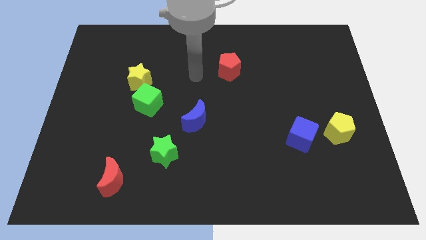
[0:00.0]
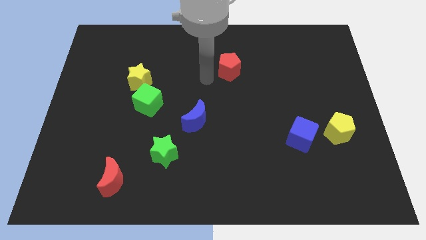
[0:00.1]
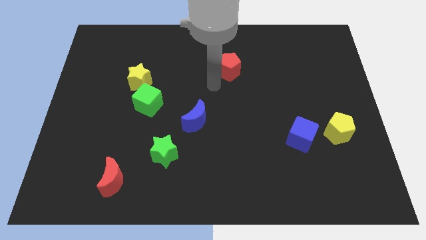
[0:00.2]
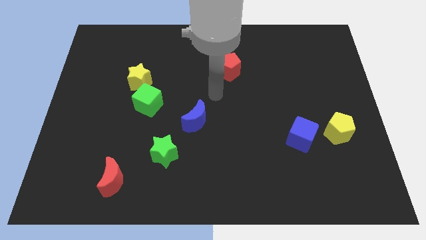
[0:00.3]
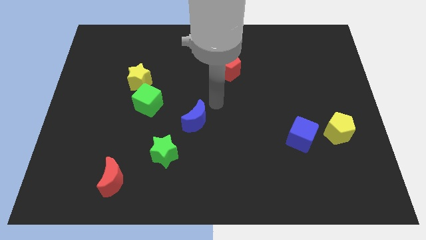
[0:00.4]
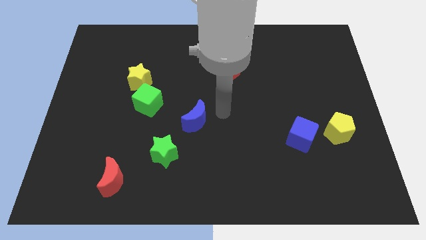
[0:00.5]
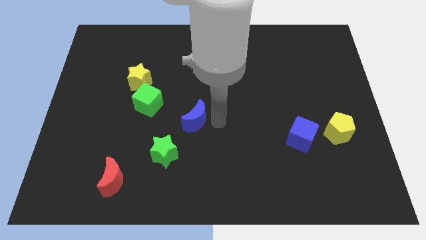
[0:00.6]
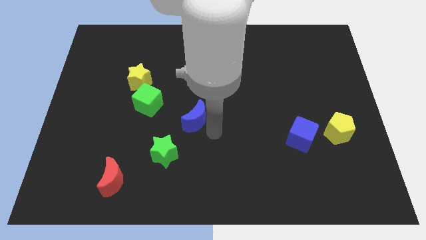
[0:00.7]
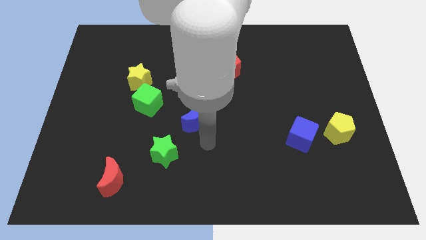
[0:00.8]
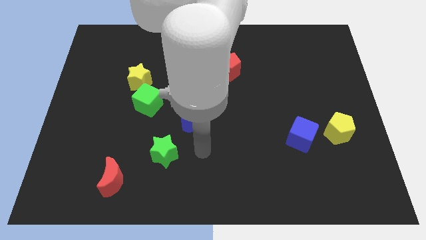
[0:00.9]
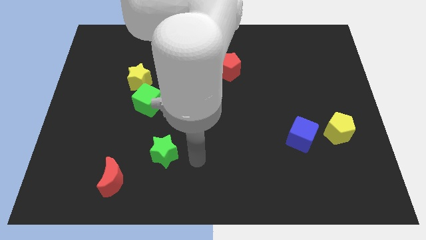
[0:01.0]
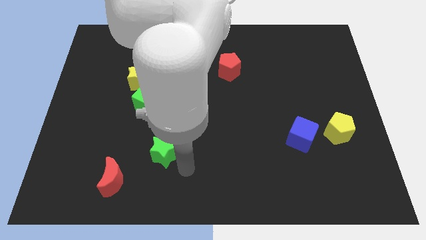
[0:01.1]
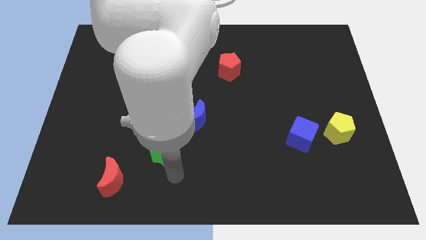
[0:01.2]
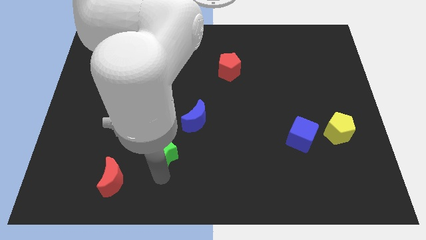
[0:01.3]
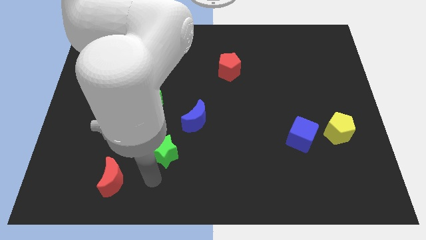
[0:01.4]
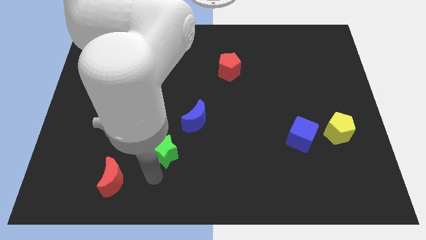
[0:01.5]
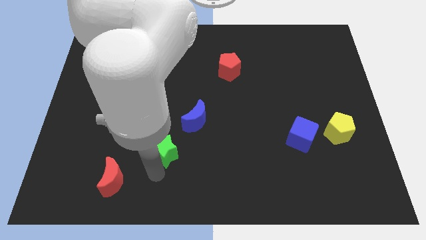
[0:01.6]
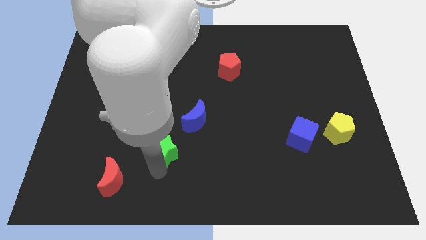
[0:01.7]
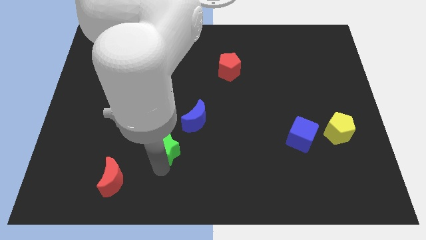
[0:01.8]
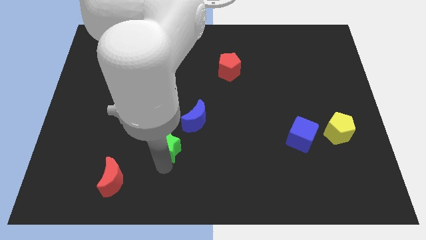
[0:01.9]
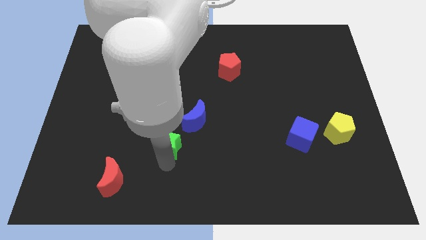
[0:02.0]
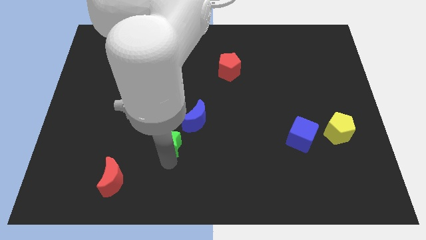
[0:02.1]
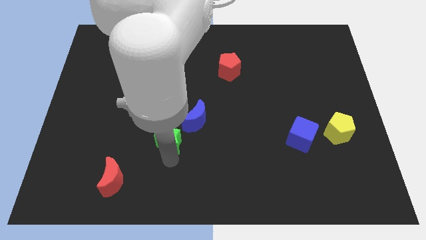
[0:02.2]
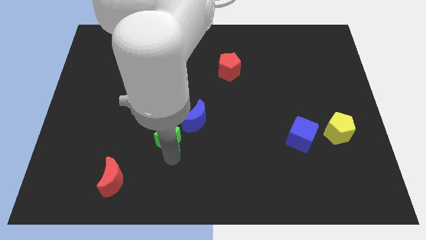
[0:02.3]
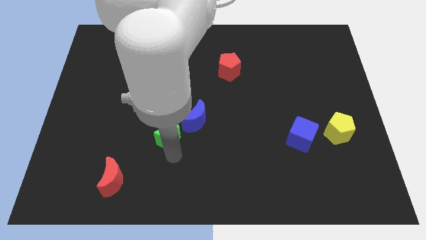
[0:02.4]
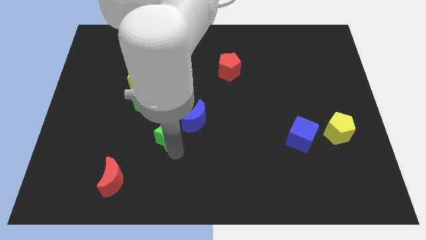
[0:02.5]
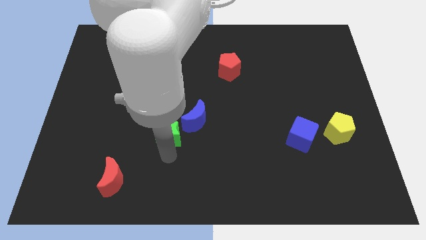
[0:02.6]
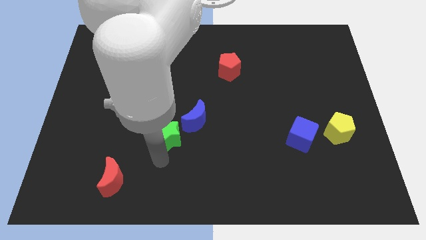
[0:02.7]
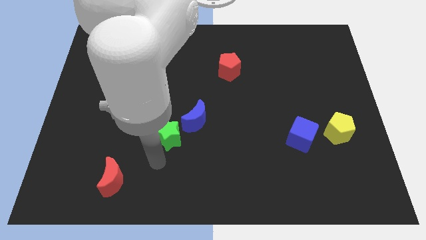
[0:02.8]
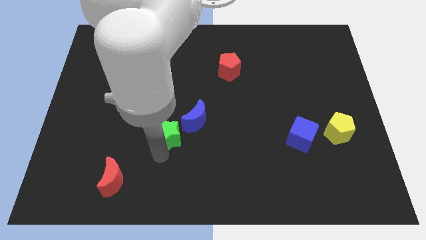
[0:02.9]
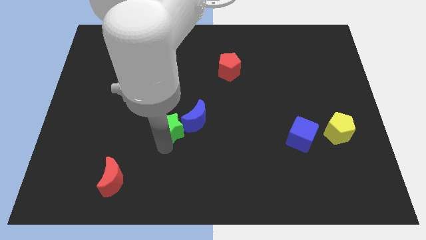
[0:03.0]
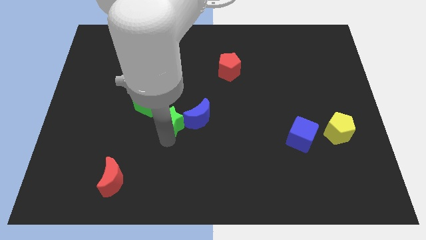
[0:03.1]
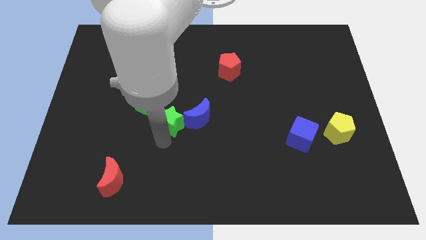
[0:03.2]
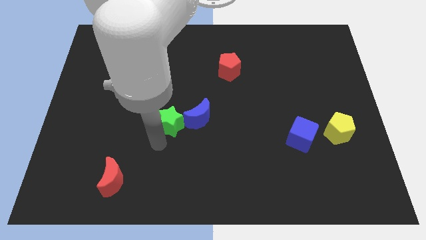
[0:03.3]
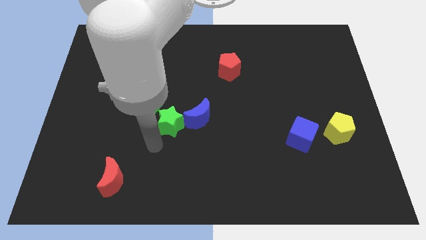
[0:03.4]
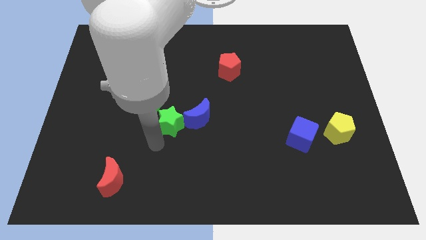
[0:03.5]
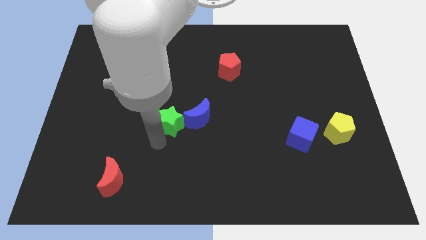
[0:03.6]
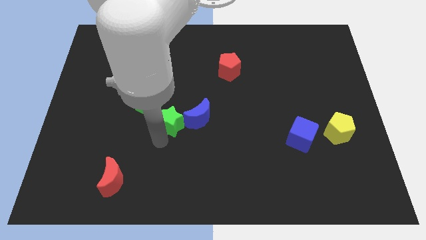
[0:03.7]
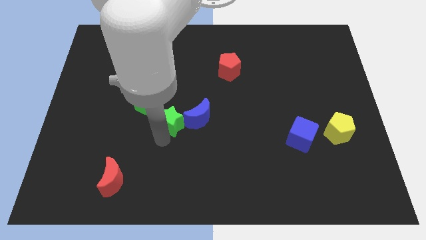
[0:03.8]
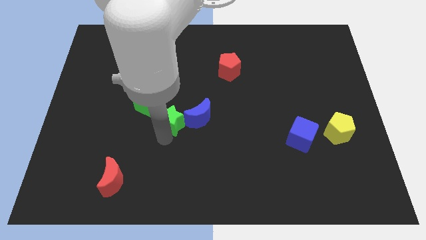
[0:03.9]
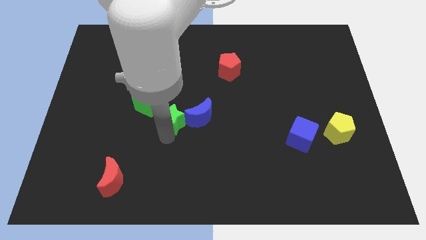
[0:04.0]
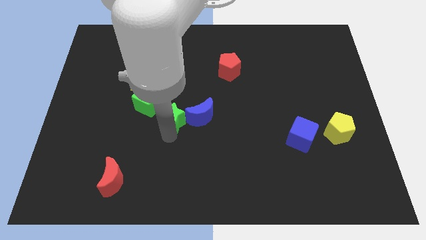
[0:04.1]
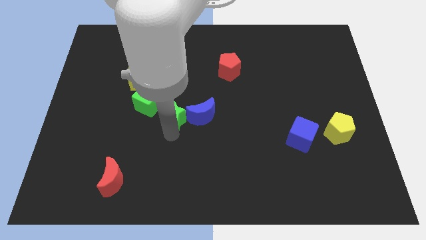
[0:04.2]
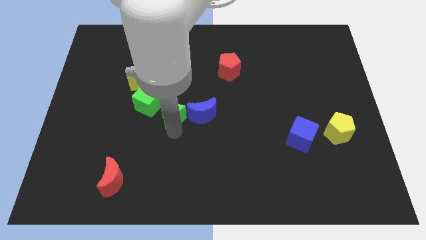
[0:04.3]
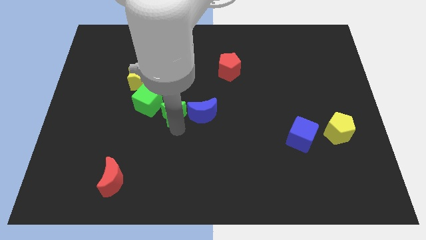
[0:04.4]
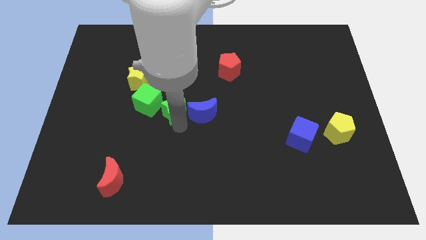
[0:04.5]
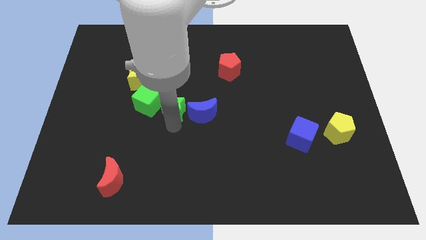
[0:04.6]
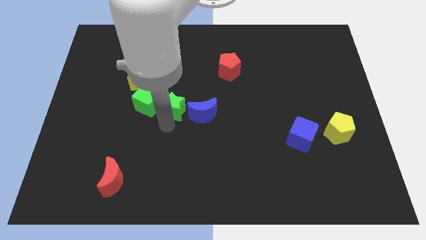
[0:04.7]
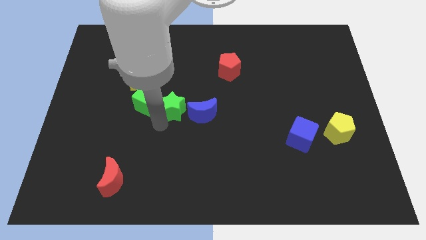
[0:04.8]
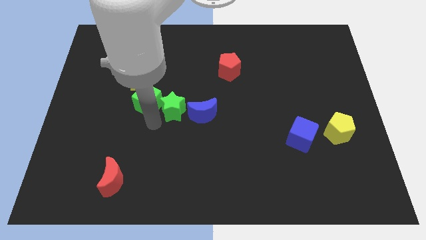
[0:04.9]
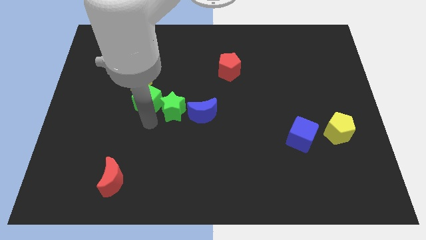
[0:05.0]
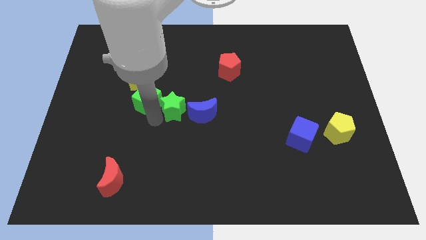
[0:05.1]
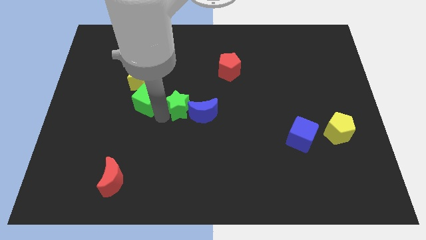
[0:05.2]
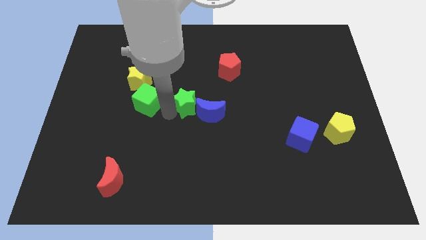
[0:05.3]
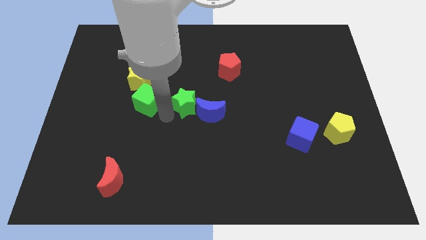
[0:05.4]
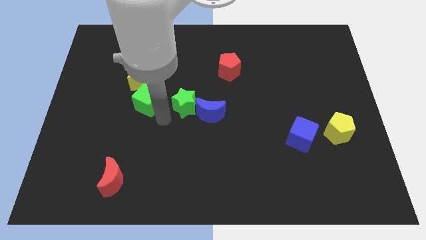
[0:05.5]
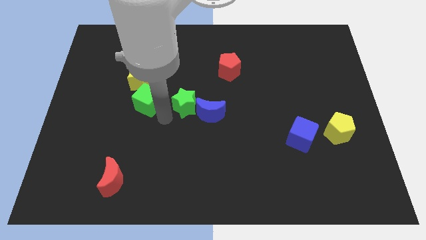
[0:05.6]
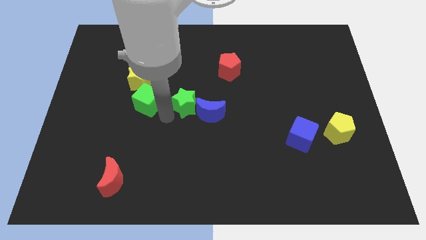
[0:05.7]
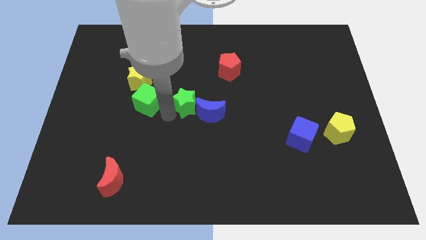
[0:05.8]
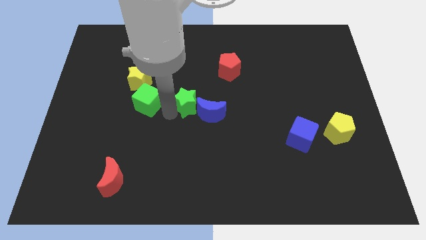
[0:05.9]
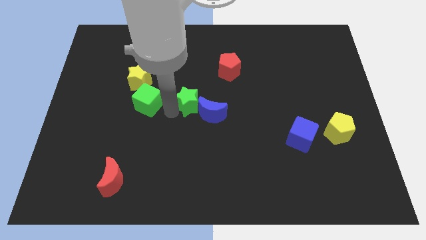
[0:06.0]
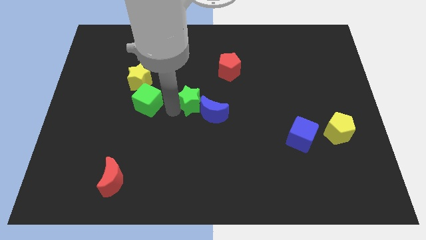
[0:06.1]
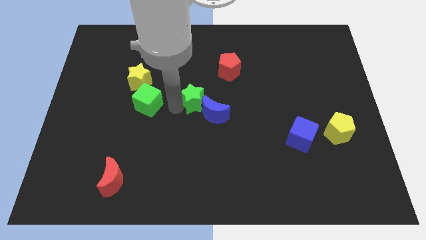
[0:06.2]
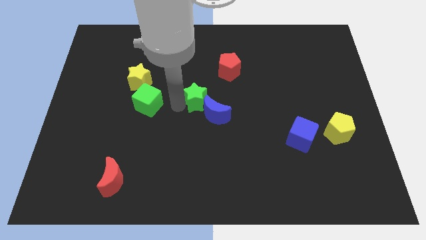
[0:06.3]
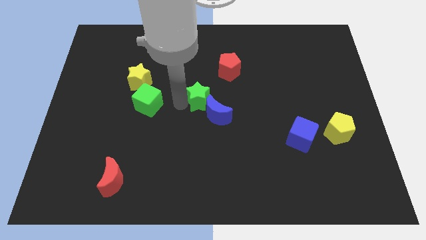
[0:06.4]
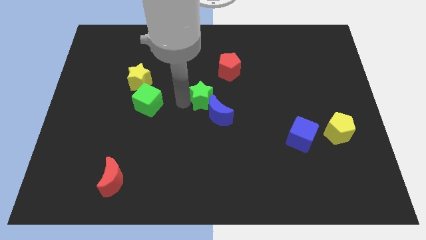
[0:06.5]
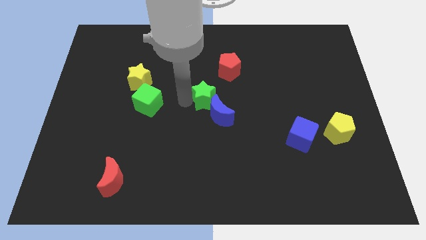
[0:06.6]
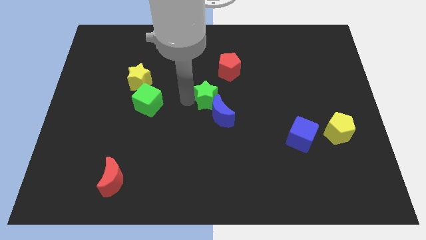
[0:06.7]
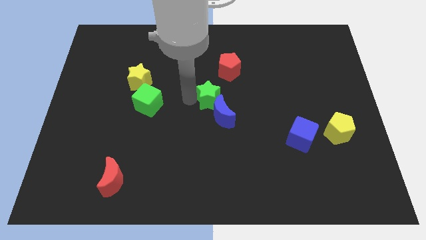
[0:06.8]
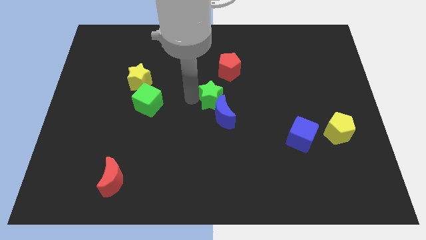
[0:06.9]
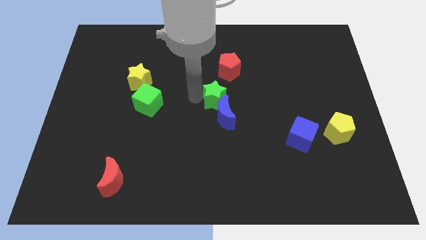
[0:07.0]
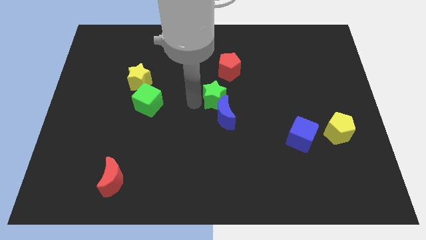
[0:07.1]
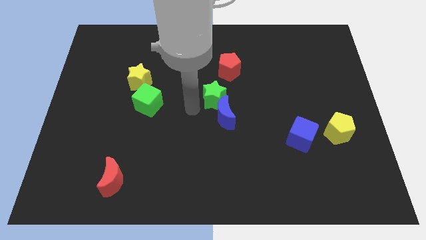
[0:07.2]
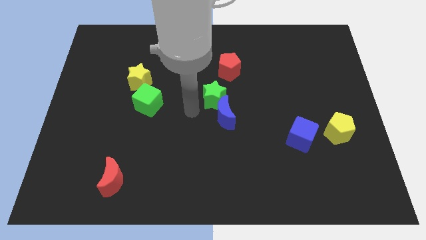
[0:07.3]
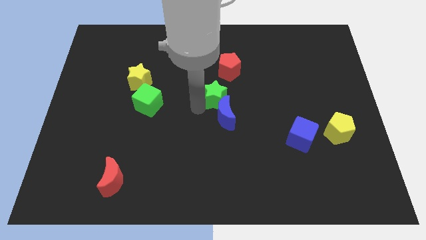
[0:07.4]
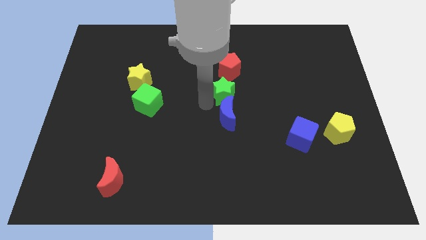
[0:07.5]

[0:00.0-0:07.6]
push the green star upwards and to the right

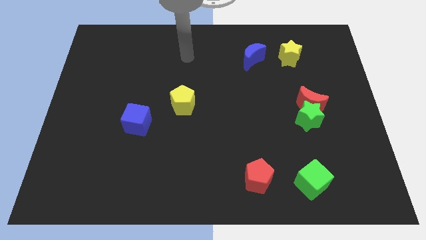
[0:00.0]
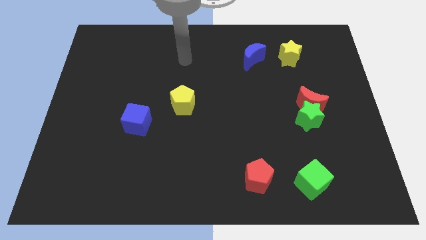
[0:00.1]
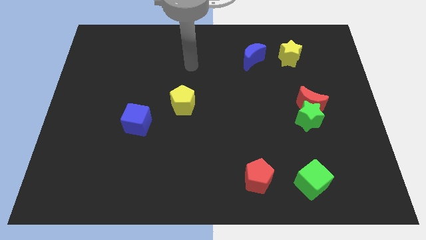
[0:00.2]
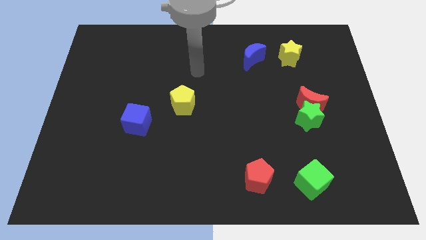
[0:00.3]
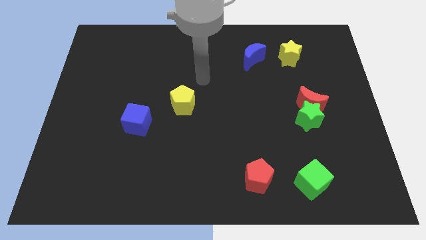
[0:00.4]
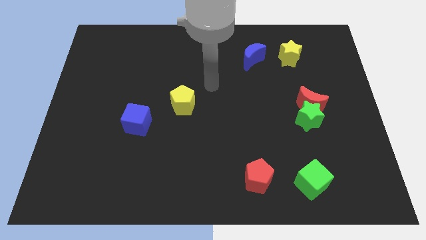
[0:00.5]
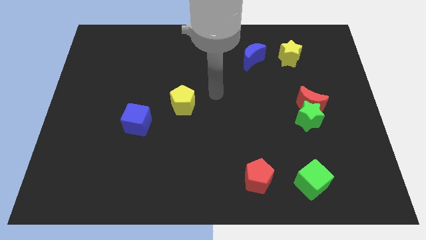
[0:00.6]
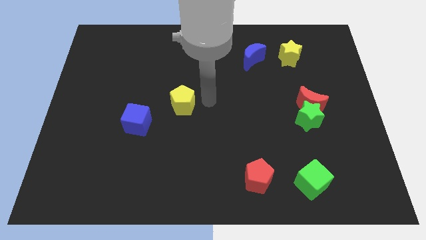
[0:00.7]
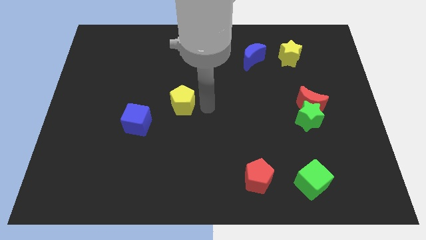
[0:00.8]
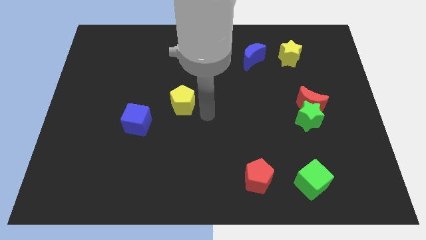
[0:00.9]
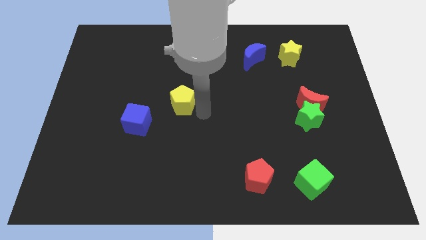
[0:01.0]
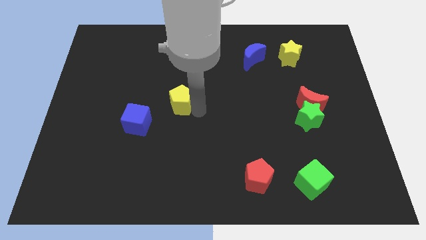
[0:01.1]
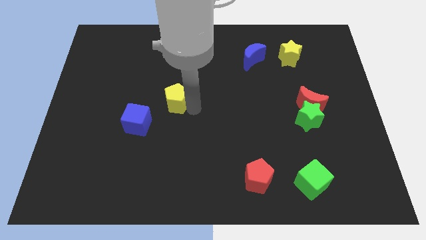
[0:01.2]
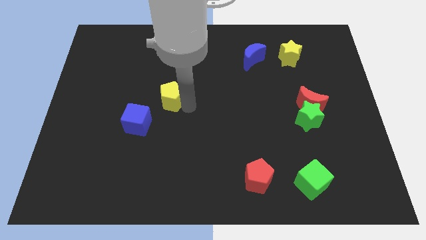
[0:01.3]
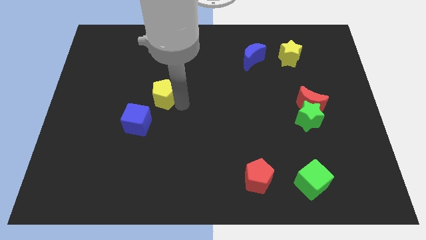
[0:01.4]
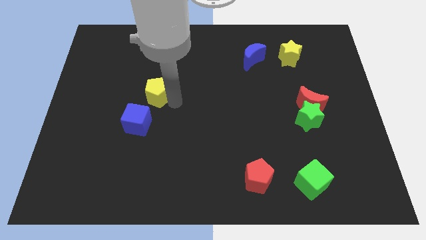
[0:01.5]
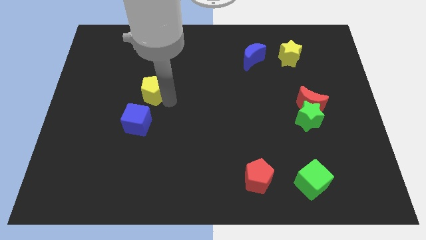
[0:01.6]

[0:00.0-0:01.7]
slightly slide the yellow pentagon upwards and to the left diagonally
